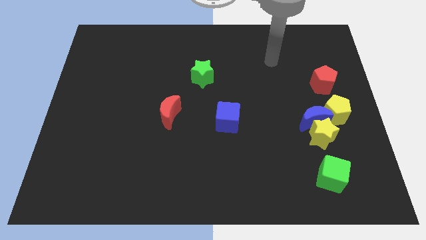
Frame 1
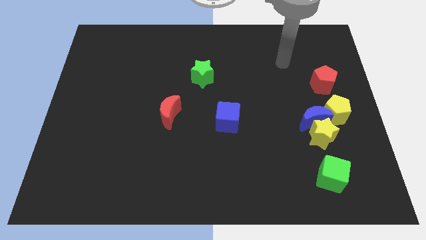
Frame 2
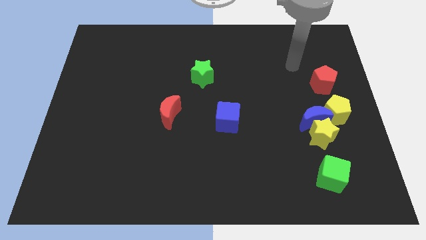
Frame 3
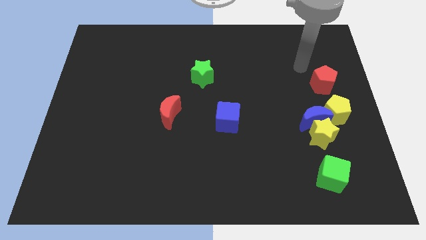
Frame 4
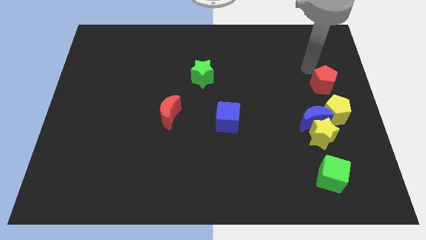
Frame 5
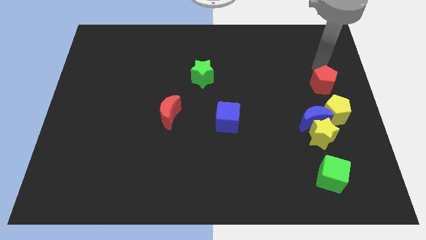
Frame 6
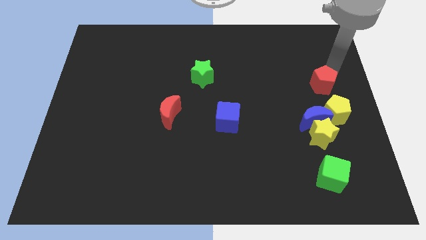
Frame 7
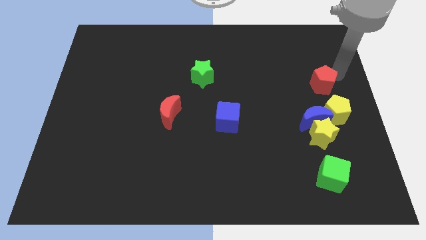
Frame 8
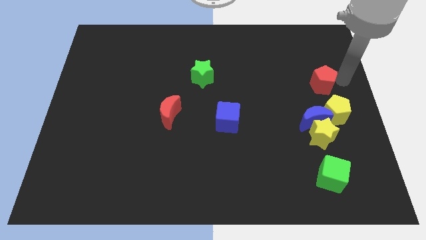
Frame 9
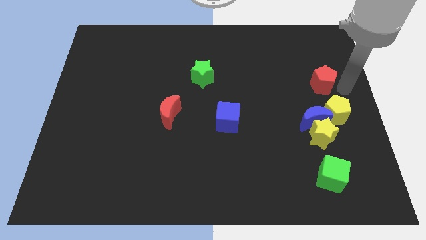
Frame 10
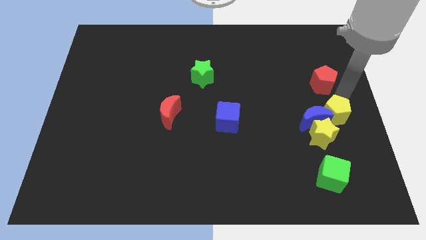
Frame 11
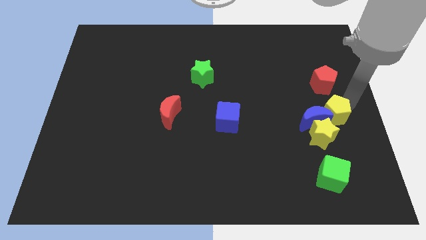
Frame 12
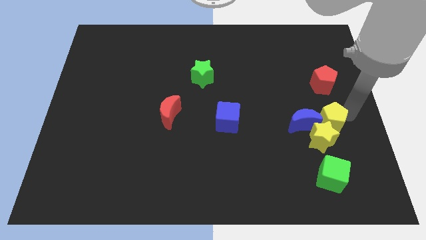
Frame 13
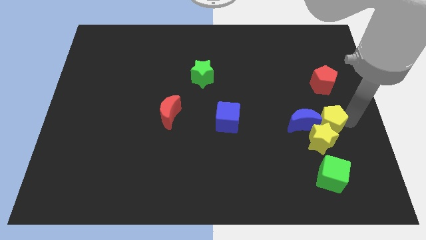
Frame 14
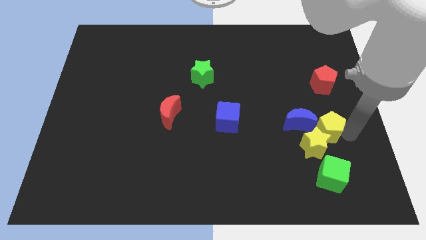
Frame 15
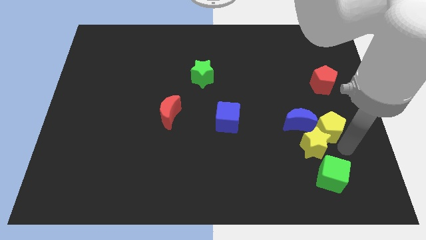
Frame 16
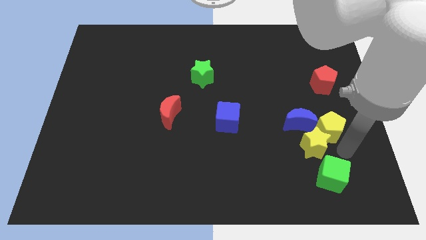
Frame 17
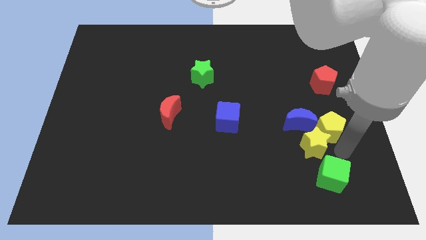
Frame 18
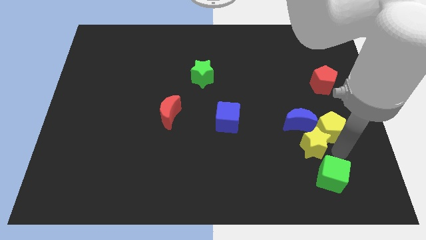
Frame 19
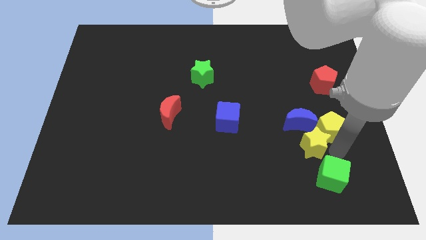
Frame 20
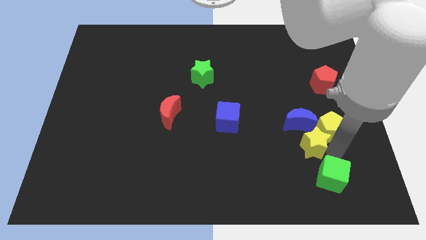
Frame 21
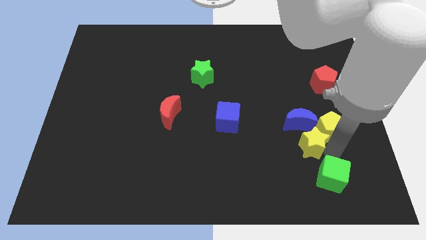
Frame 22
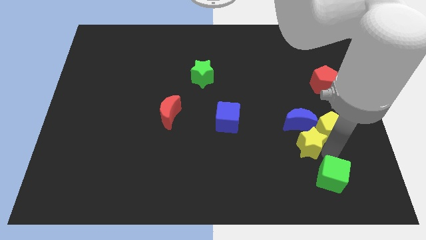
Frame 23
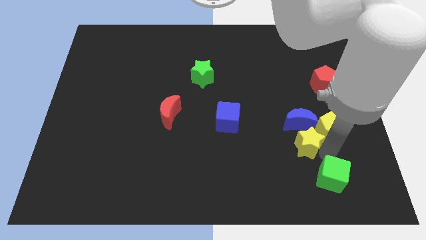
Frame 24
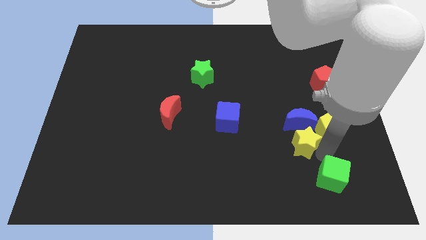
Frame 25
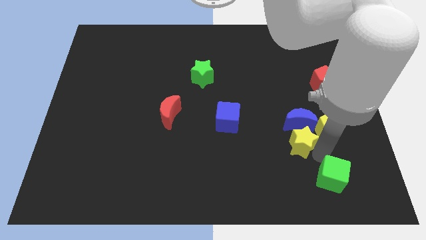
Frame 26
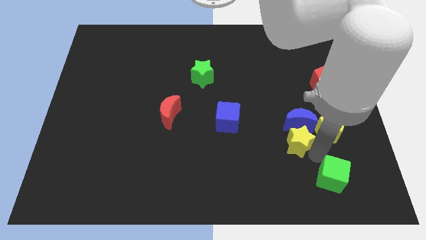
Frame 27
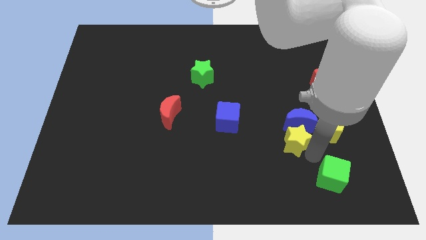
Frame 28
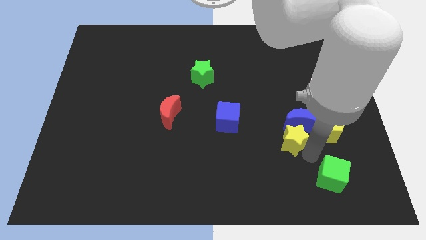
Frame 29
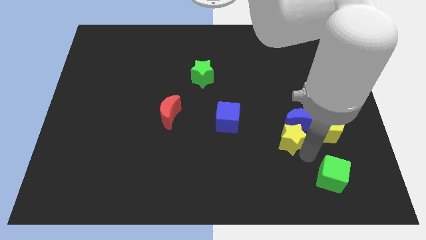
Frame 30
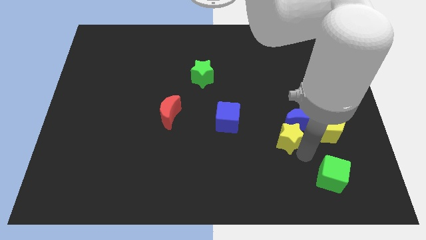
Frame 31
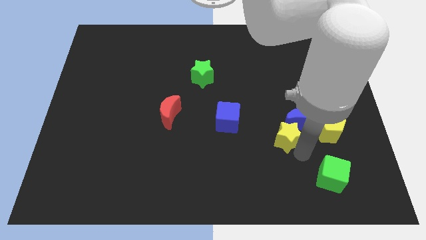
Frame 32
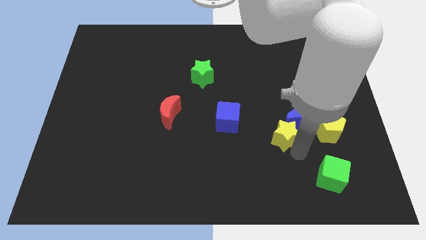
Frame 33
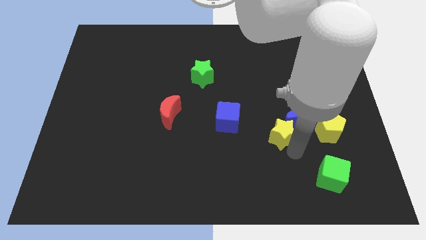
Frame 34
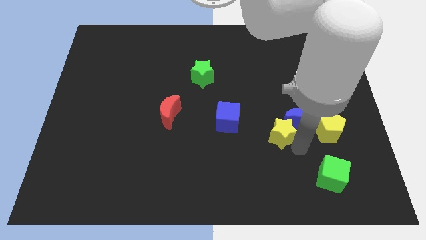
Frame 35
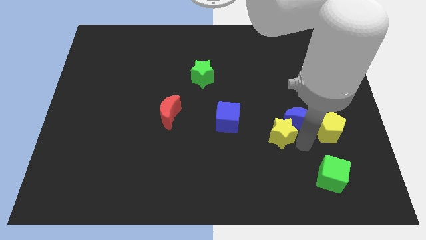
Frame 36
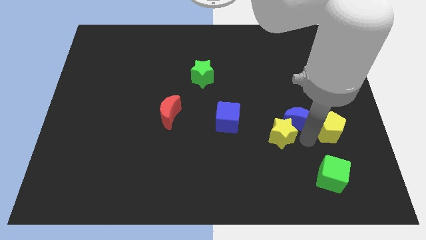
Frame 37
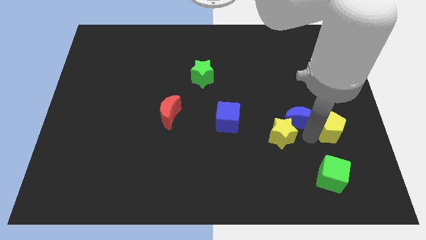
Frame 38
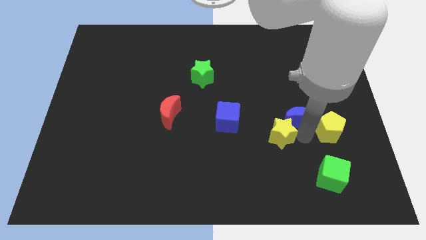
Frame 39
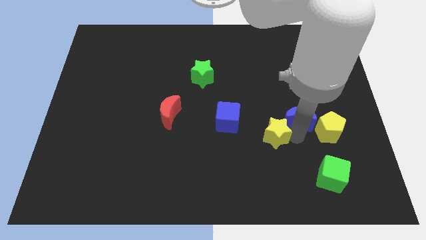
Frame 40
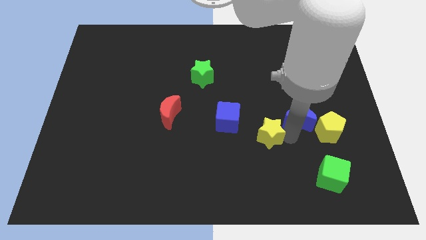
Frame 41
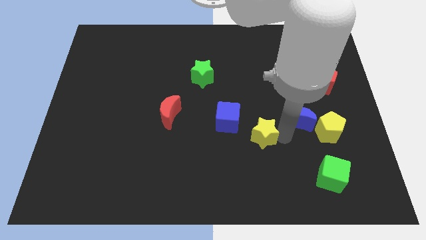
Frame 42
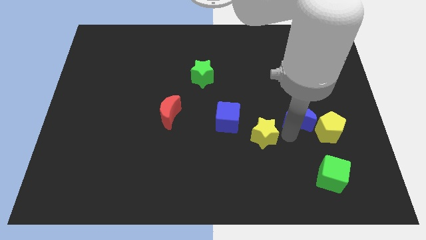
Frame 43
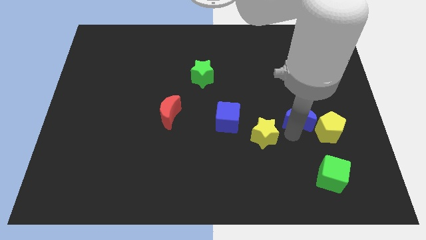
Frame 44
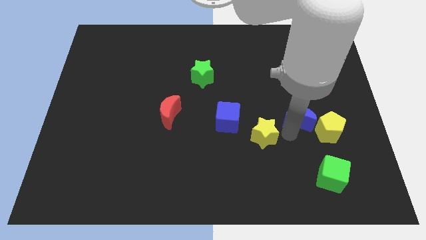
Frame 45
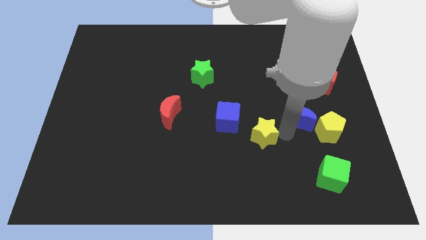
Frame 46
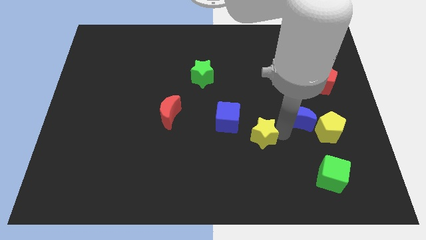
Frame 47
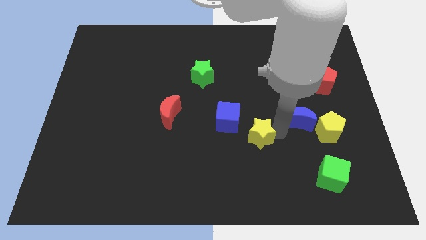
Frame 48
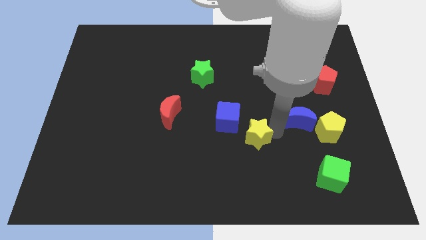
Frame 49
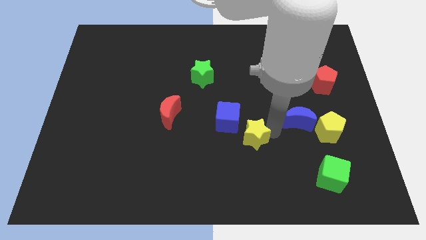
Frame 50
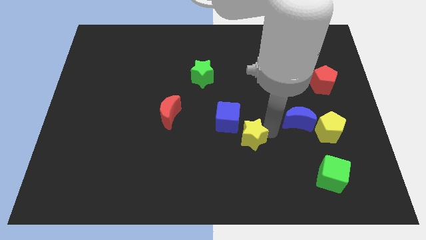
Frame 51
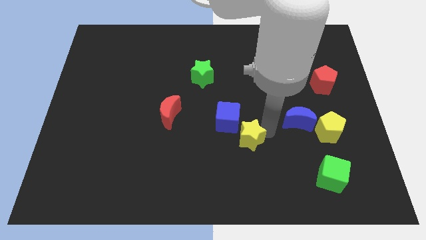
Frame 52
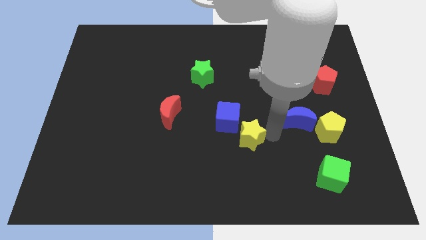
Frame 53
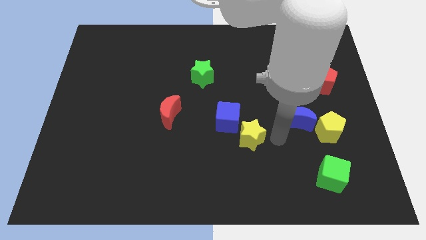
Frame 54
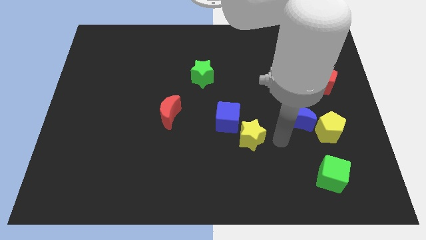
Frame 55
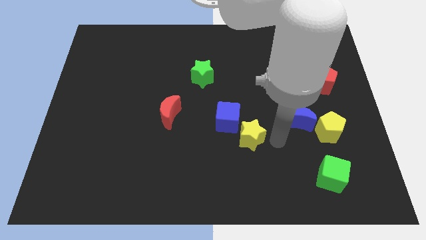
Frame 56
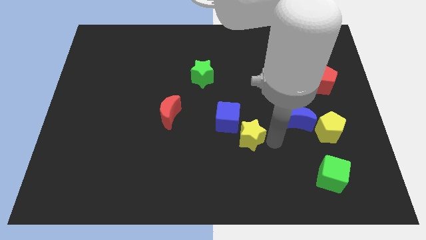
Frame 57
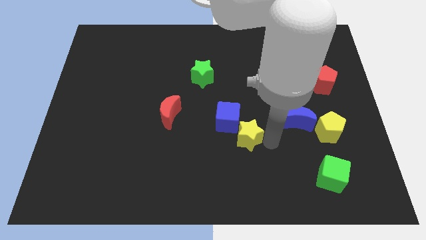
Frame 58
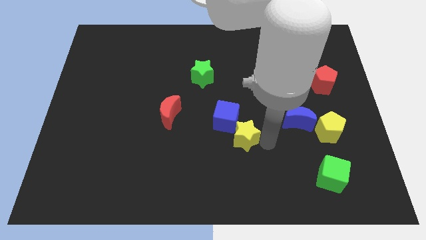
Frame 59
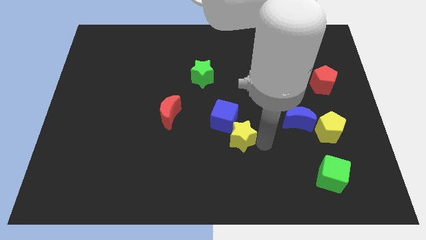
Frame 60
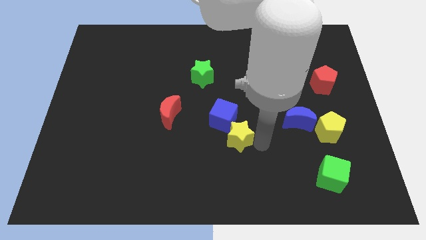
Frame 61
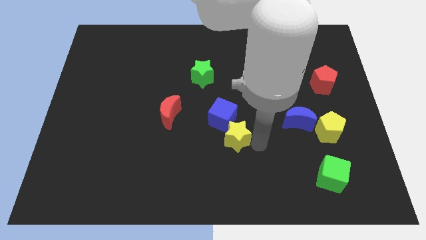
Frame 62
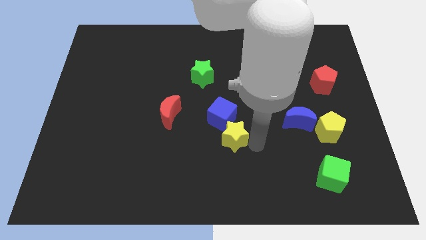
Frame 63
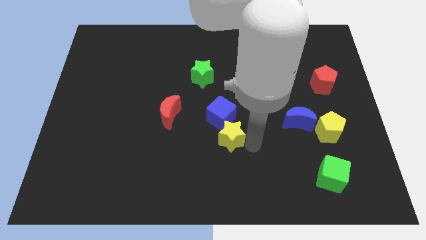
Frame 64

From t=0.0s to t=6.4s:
move the yellow star to the left

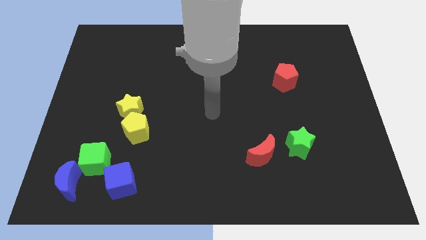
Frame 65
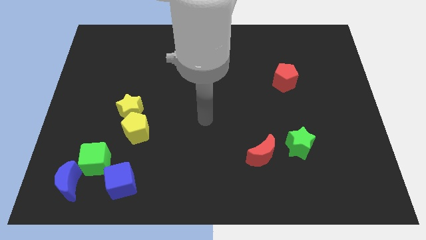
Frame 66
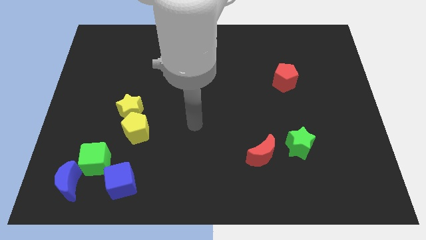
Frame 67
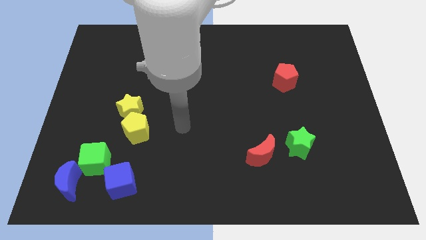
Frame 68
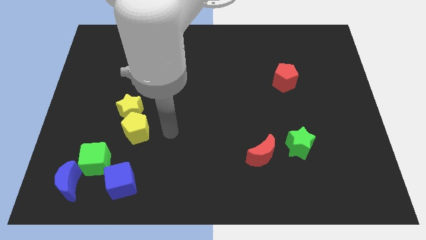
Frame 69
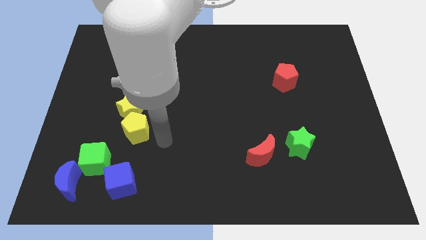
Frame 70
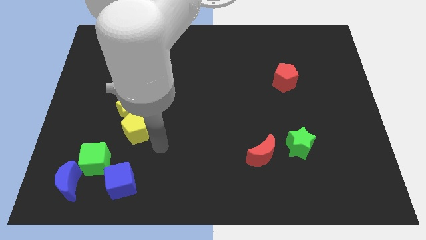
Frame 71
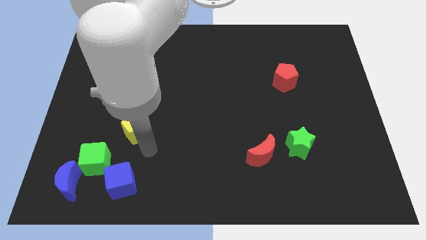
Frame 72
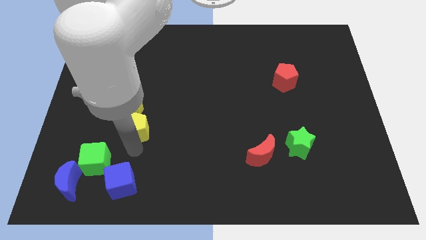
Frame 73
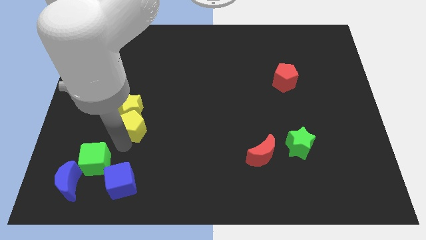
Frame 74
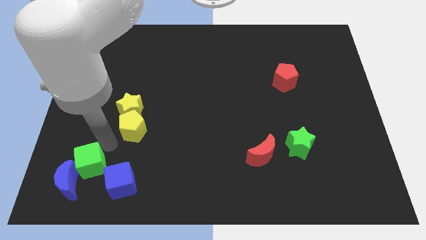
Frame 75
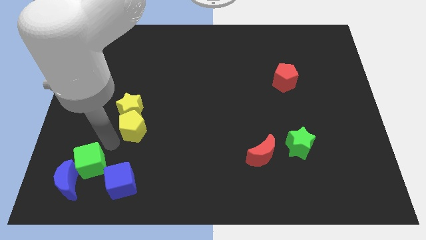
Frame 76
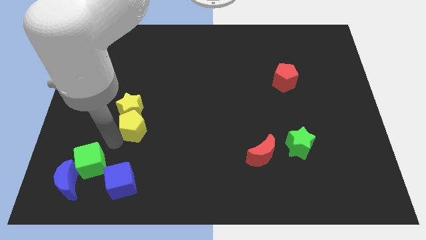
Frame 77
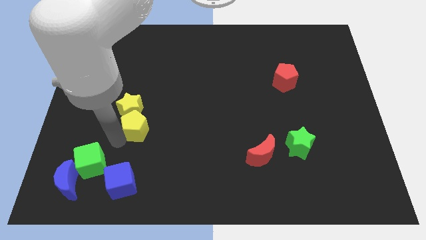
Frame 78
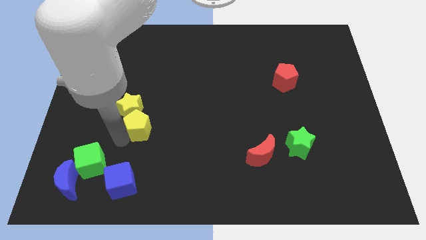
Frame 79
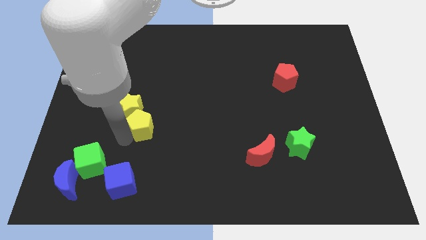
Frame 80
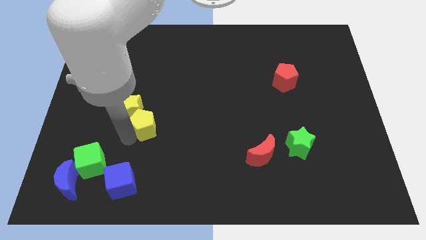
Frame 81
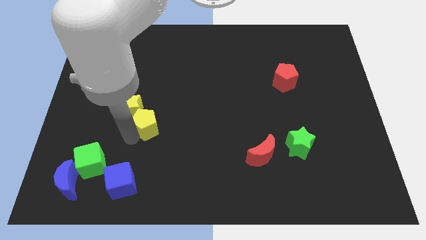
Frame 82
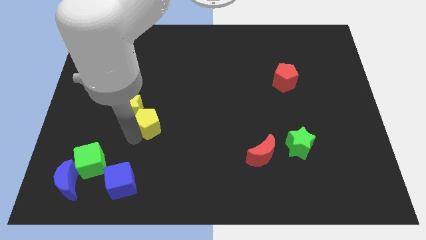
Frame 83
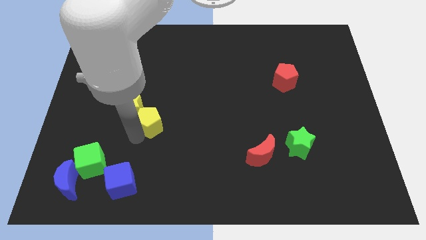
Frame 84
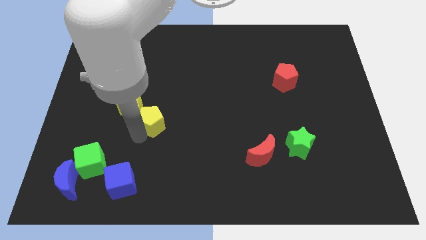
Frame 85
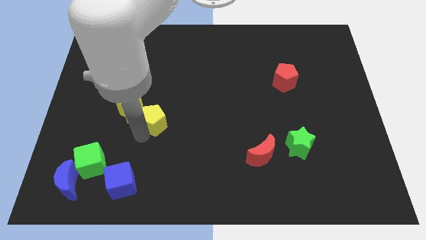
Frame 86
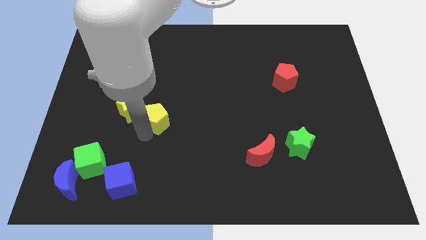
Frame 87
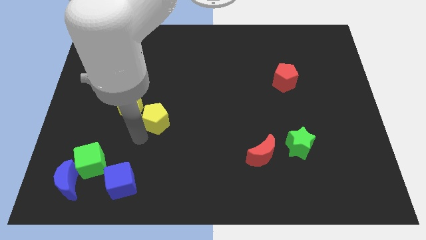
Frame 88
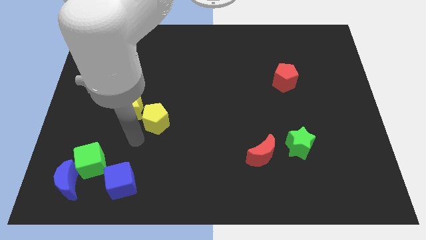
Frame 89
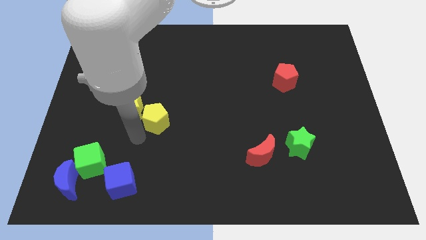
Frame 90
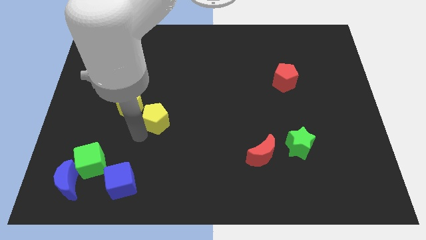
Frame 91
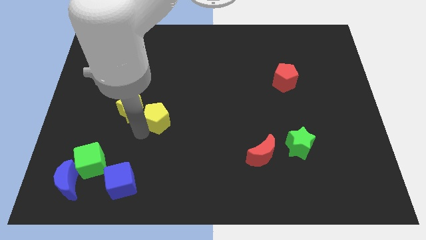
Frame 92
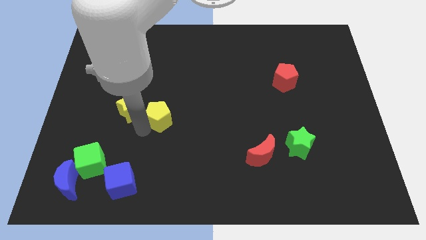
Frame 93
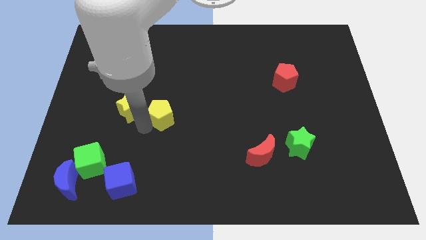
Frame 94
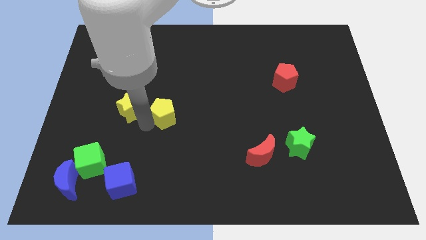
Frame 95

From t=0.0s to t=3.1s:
move the yellow pentagon slightly up and then right
